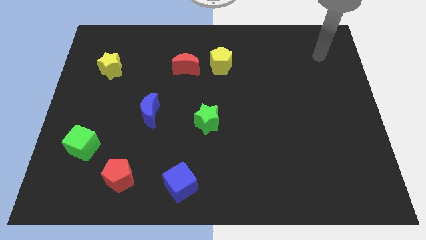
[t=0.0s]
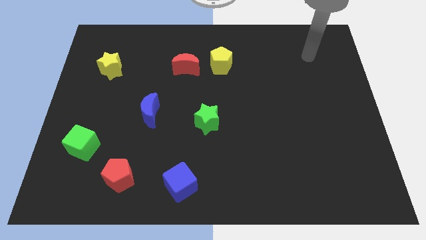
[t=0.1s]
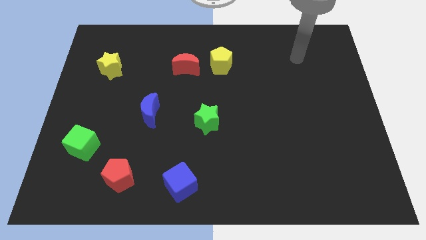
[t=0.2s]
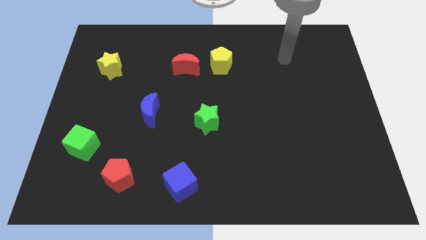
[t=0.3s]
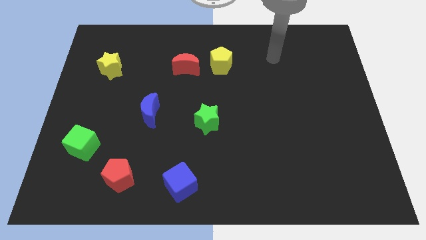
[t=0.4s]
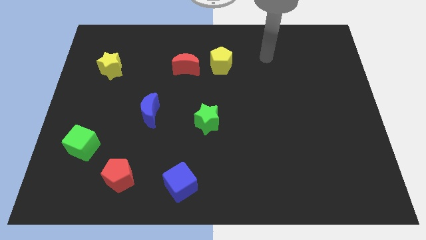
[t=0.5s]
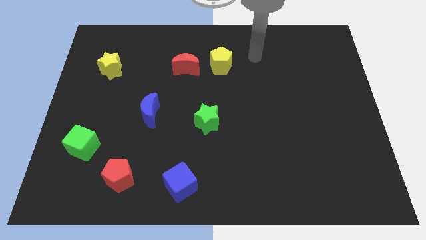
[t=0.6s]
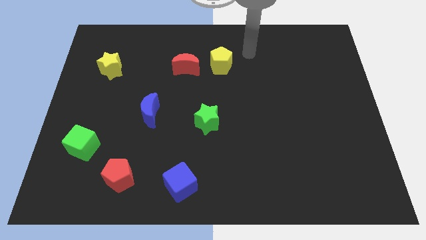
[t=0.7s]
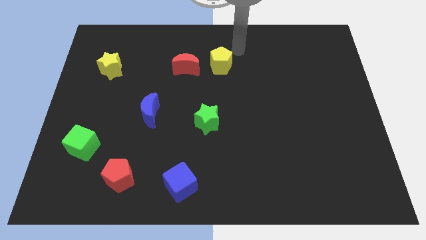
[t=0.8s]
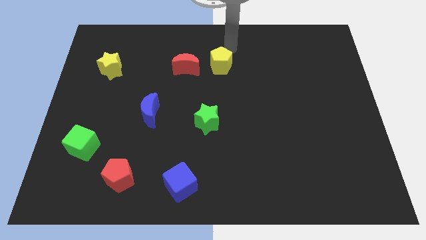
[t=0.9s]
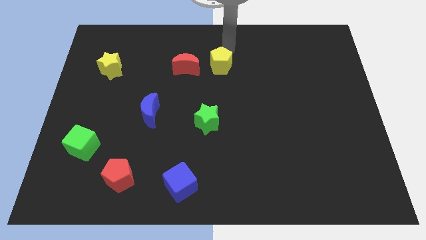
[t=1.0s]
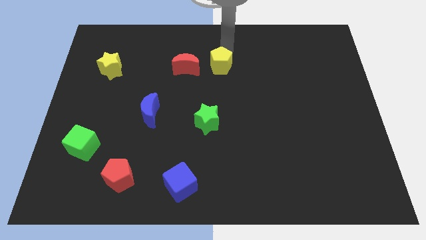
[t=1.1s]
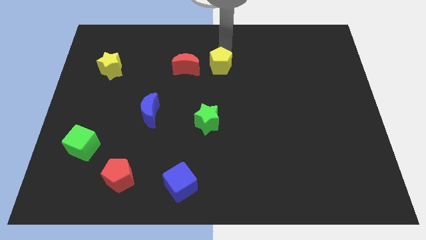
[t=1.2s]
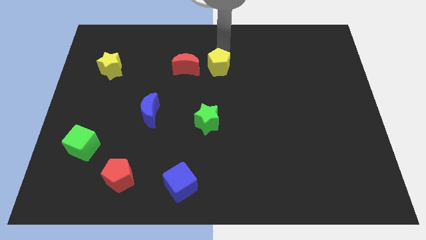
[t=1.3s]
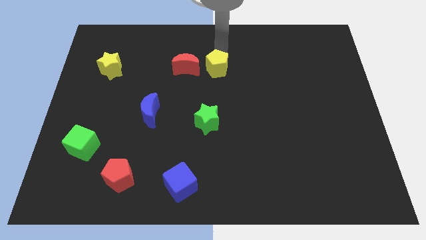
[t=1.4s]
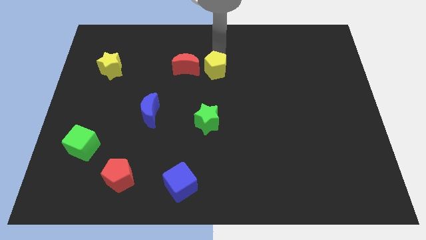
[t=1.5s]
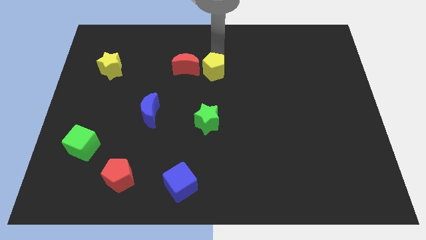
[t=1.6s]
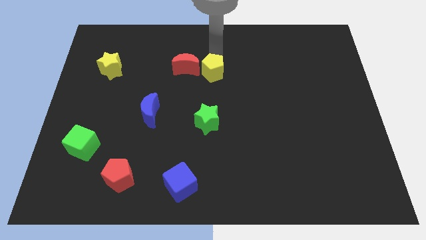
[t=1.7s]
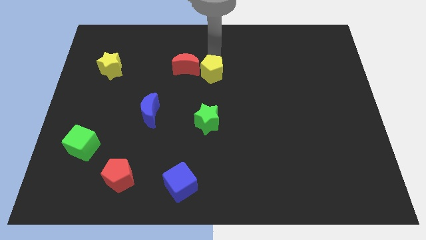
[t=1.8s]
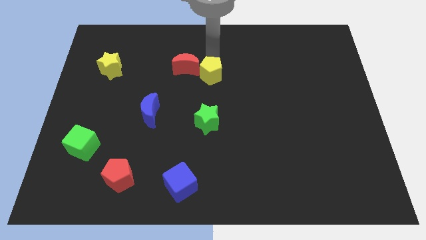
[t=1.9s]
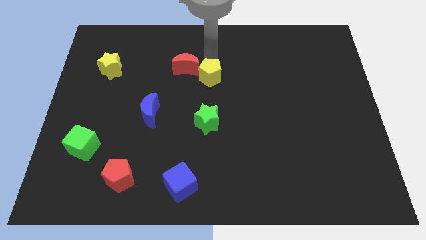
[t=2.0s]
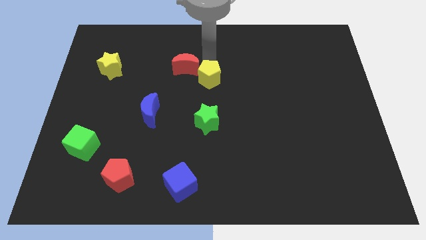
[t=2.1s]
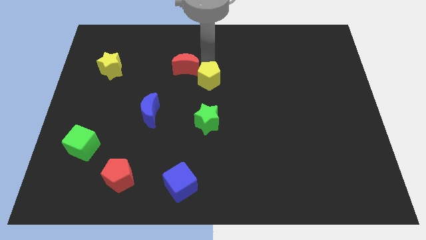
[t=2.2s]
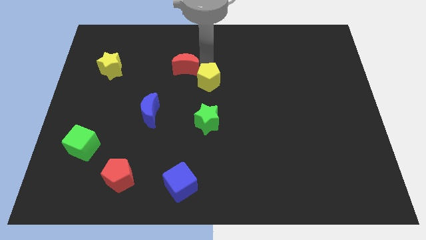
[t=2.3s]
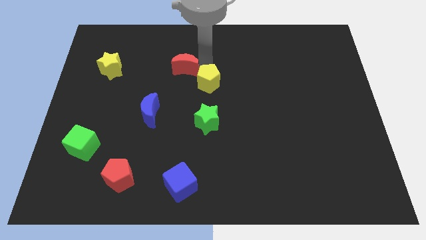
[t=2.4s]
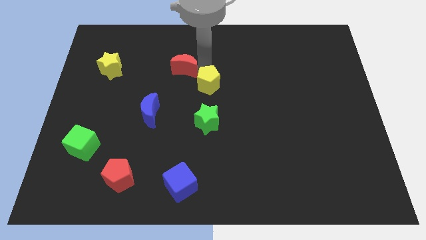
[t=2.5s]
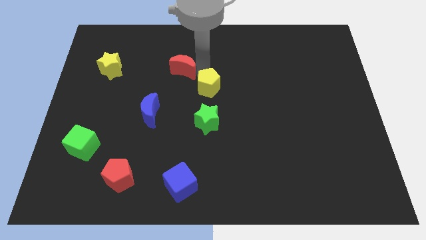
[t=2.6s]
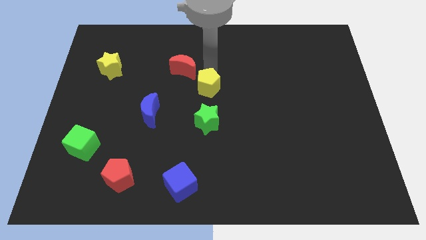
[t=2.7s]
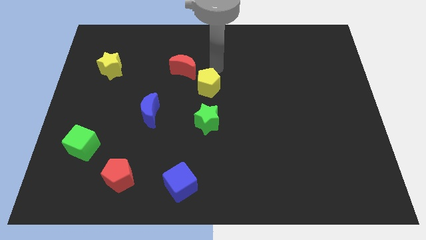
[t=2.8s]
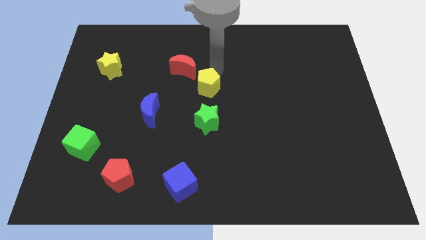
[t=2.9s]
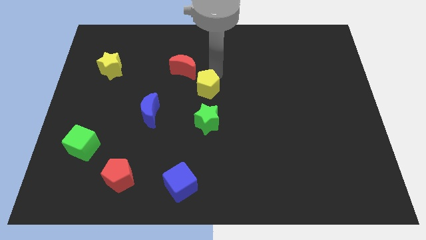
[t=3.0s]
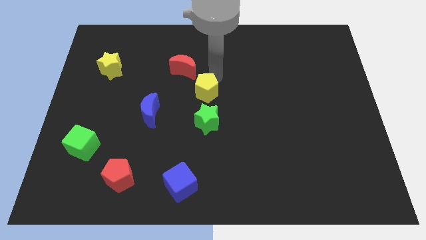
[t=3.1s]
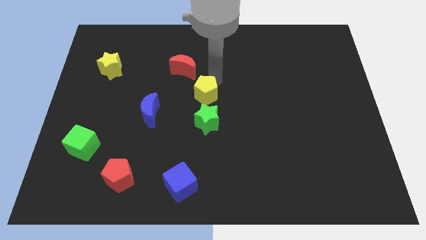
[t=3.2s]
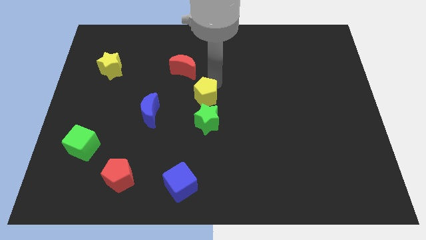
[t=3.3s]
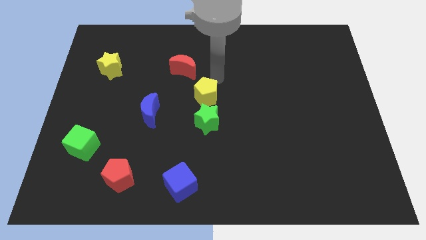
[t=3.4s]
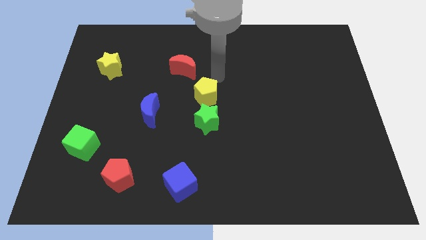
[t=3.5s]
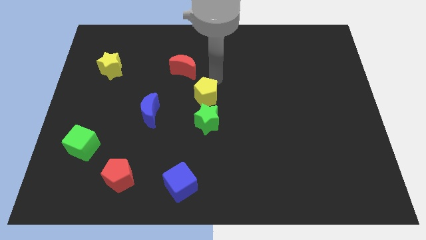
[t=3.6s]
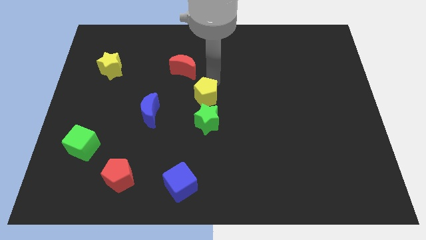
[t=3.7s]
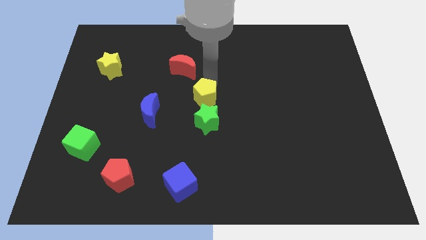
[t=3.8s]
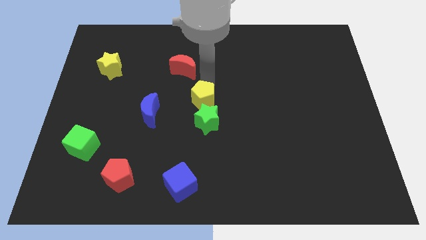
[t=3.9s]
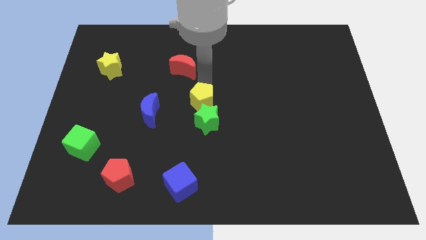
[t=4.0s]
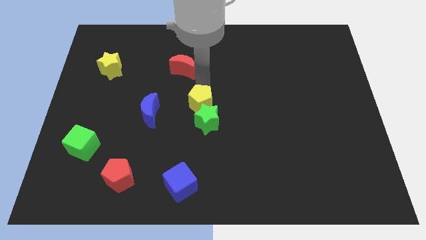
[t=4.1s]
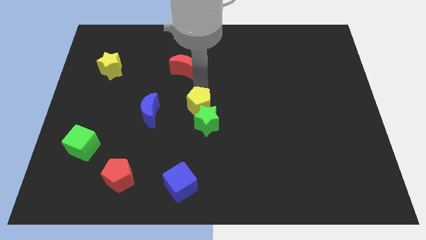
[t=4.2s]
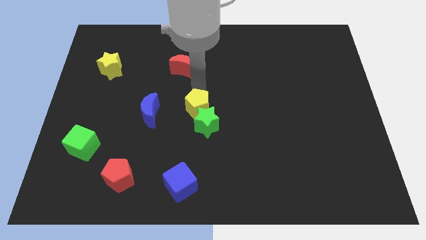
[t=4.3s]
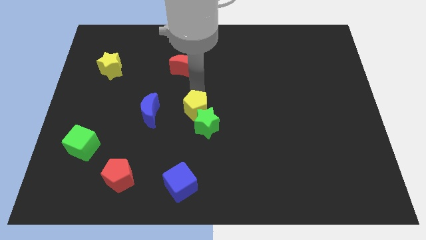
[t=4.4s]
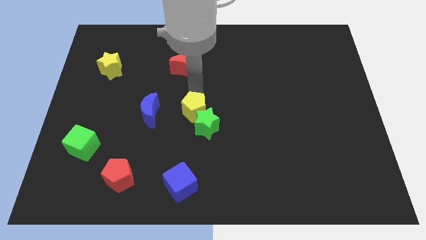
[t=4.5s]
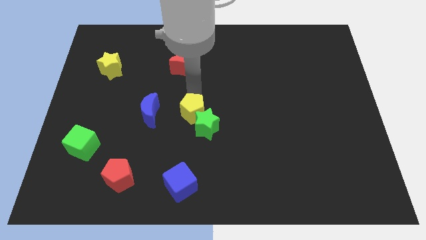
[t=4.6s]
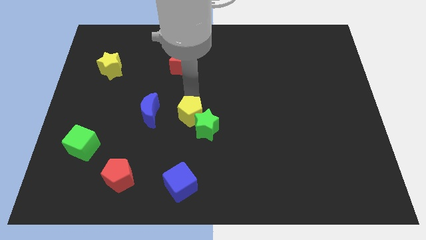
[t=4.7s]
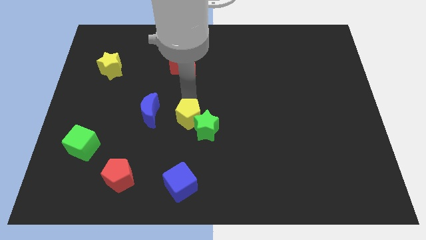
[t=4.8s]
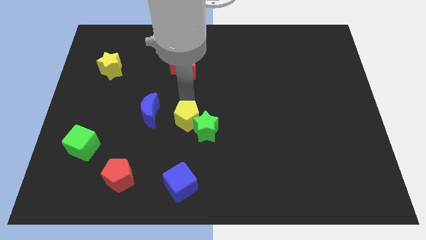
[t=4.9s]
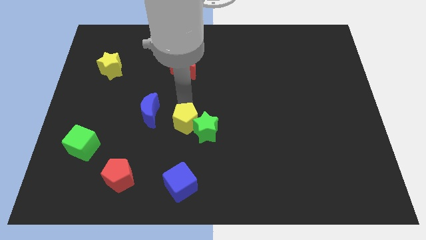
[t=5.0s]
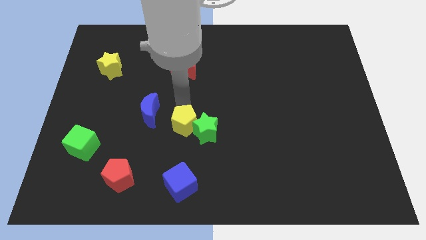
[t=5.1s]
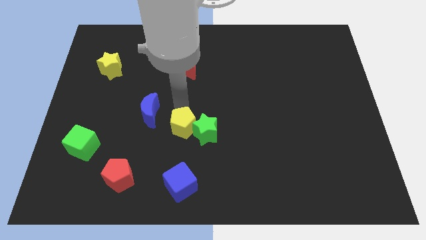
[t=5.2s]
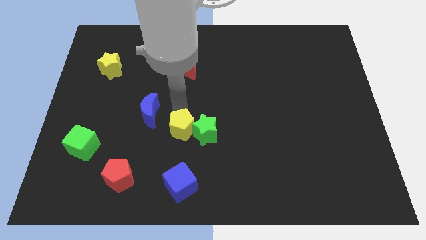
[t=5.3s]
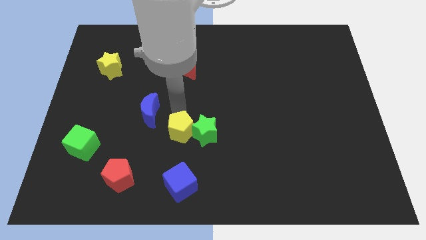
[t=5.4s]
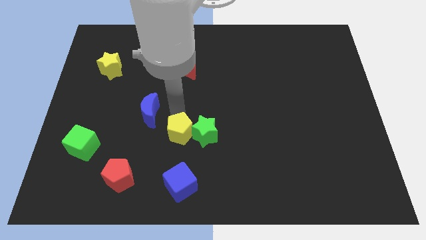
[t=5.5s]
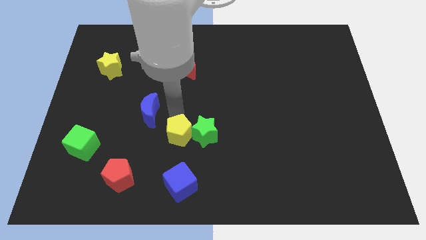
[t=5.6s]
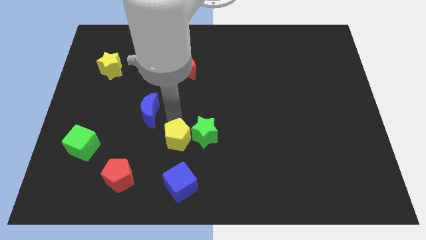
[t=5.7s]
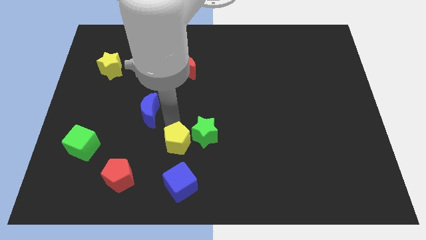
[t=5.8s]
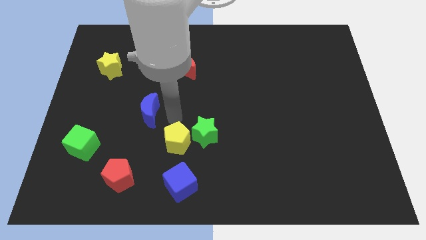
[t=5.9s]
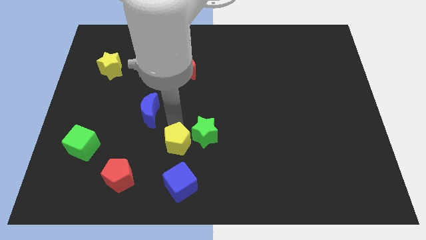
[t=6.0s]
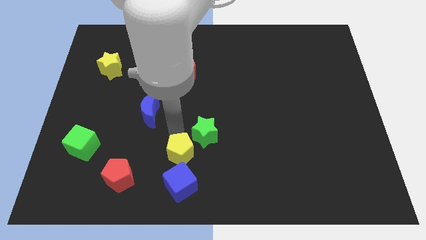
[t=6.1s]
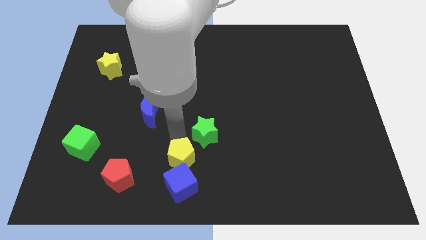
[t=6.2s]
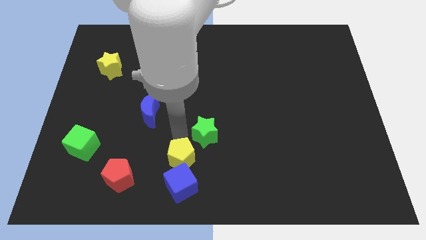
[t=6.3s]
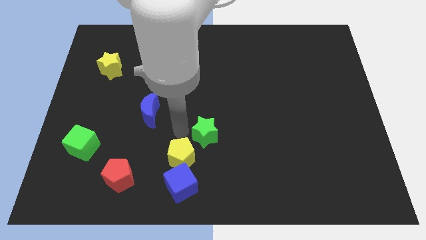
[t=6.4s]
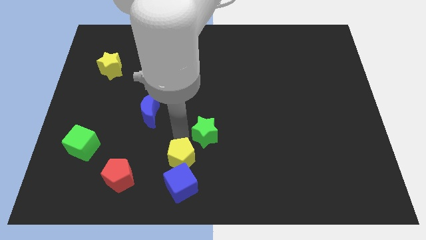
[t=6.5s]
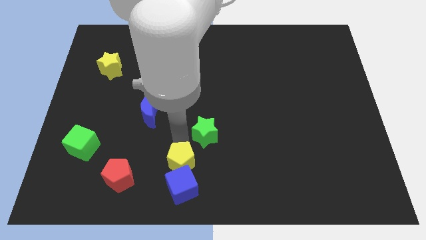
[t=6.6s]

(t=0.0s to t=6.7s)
put the yellow pentagon next to the blue cube

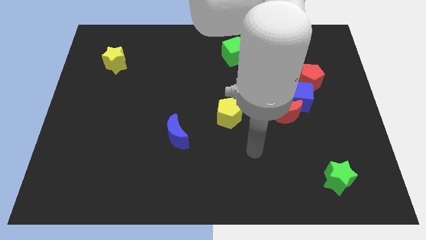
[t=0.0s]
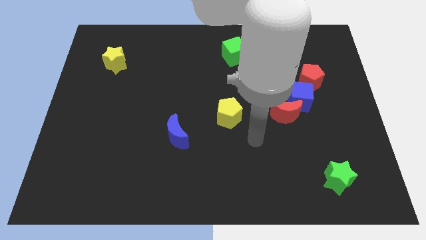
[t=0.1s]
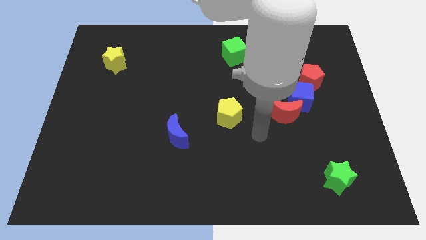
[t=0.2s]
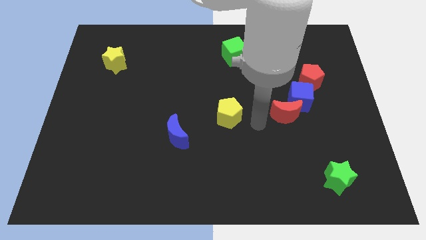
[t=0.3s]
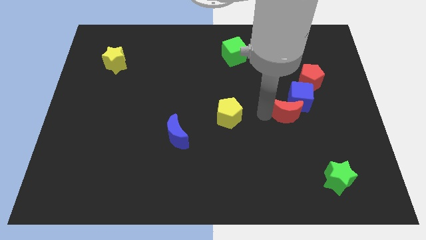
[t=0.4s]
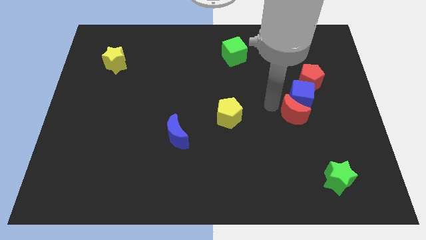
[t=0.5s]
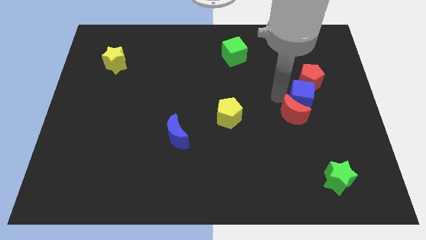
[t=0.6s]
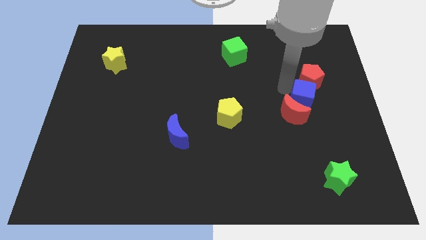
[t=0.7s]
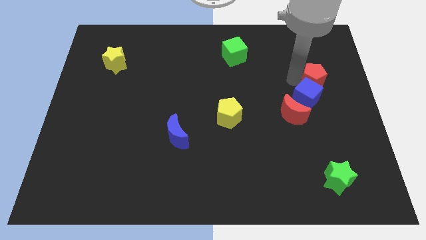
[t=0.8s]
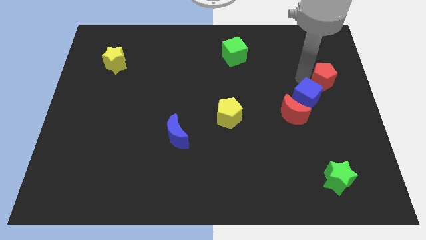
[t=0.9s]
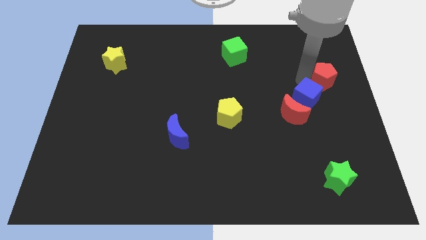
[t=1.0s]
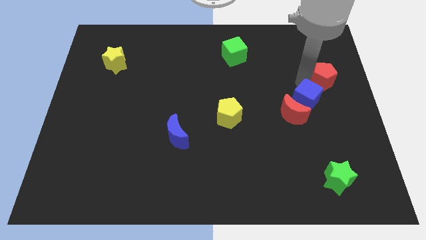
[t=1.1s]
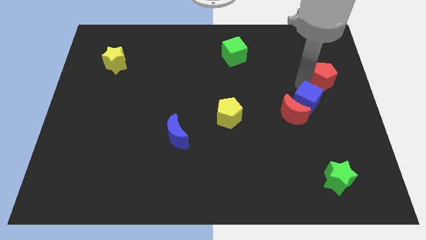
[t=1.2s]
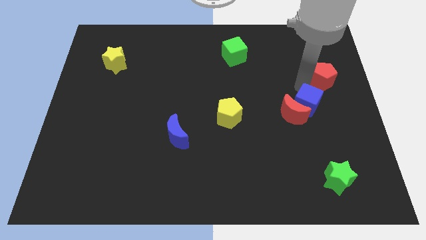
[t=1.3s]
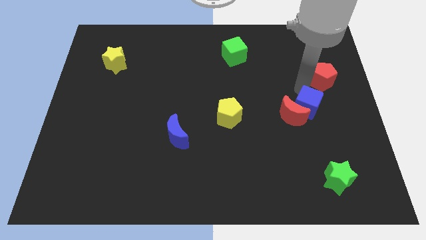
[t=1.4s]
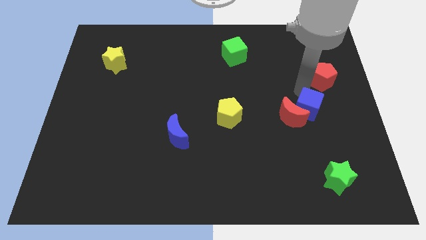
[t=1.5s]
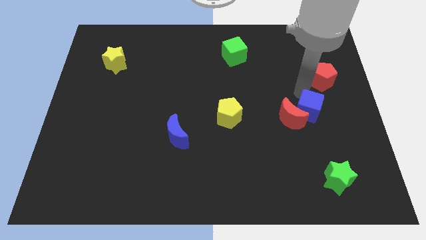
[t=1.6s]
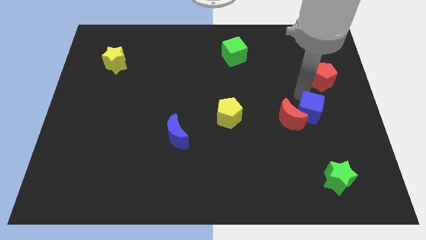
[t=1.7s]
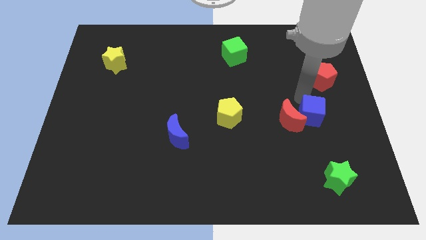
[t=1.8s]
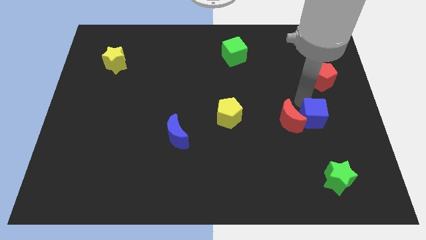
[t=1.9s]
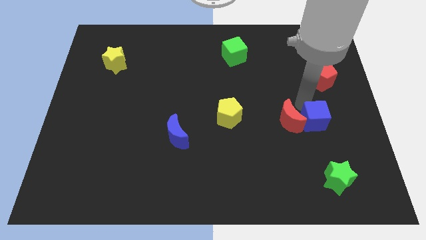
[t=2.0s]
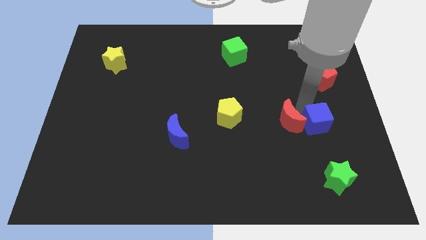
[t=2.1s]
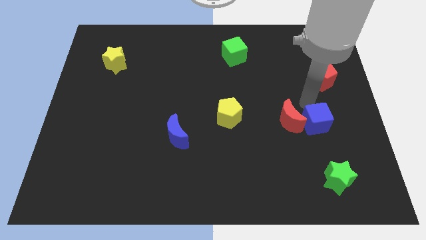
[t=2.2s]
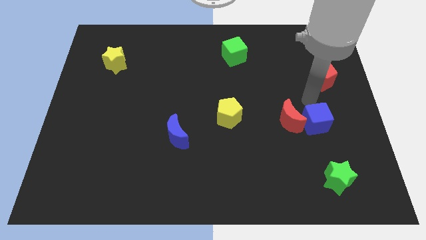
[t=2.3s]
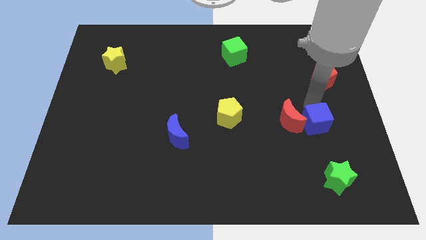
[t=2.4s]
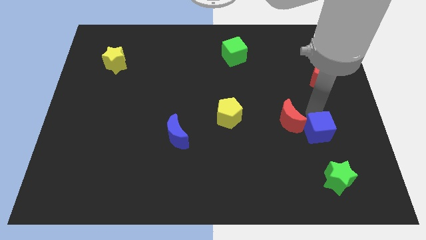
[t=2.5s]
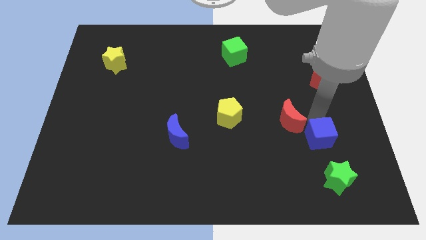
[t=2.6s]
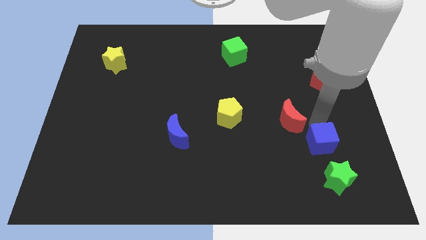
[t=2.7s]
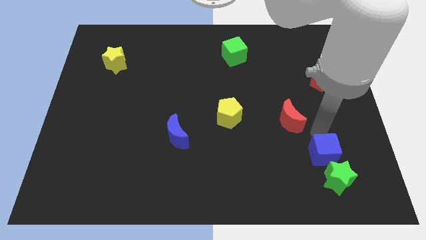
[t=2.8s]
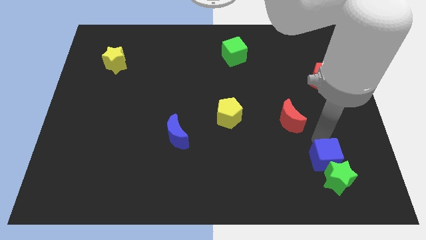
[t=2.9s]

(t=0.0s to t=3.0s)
put the blue cube next to the green star
